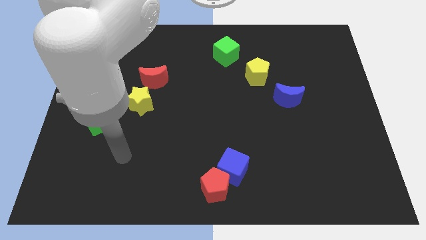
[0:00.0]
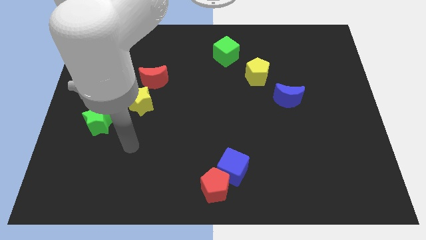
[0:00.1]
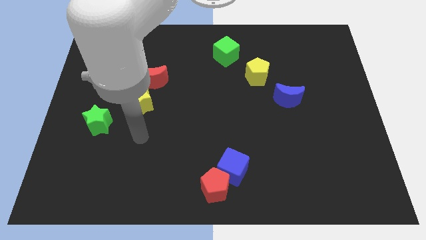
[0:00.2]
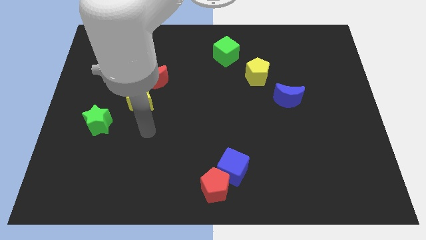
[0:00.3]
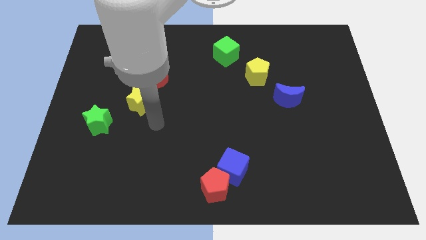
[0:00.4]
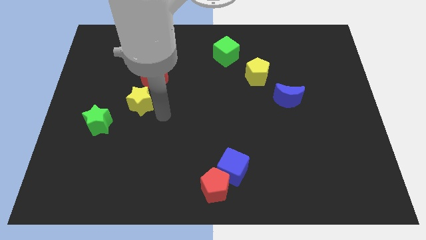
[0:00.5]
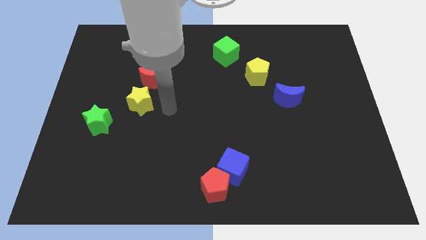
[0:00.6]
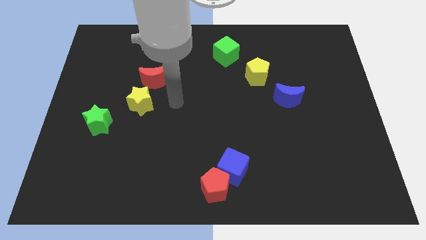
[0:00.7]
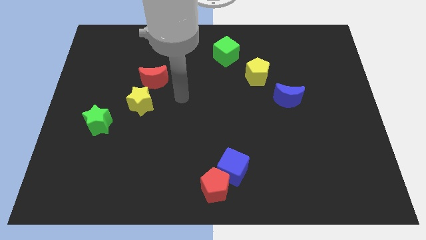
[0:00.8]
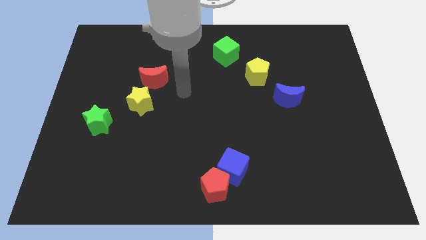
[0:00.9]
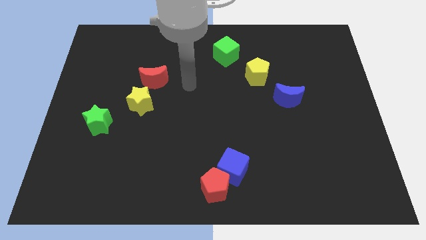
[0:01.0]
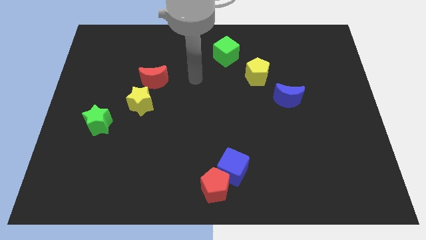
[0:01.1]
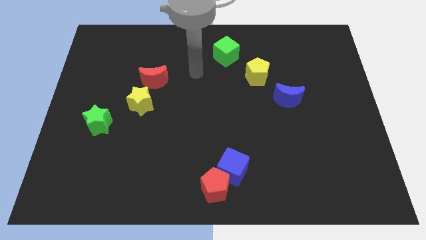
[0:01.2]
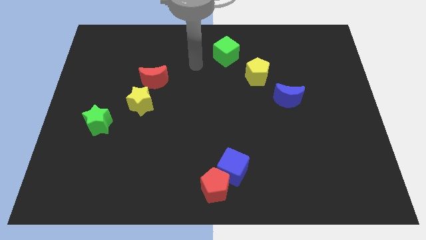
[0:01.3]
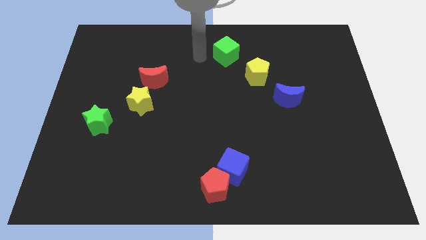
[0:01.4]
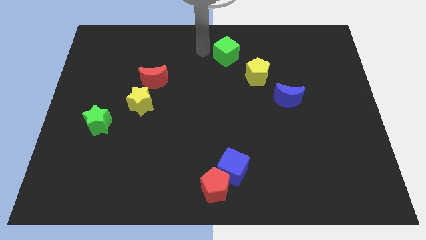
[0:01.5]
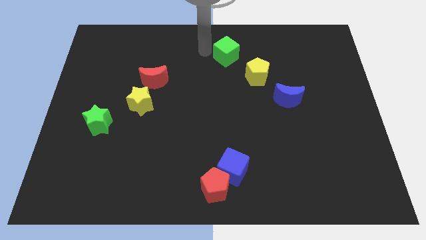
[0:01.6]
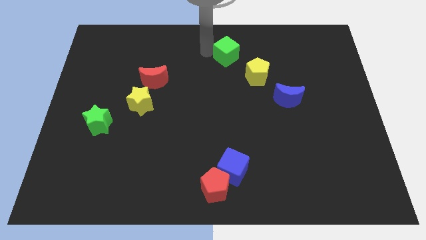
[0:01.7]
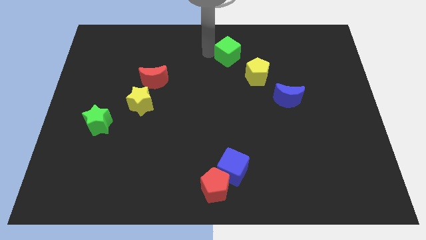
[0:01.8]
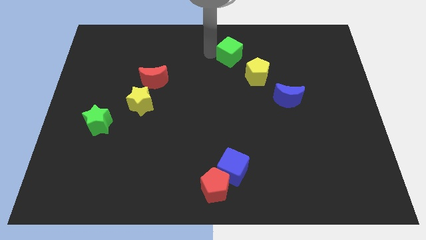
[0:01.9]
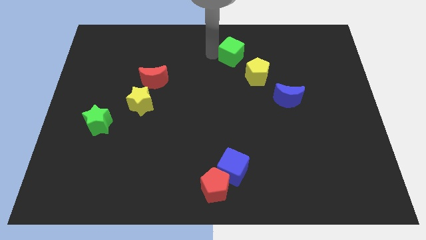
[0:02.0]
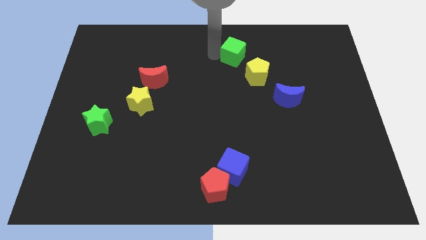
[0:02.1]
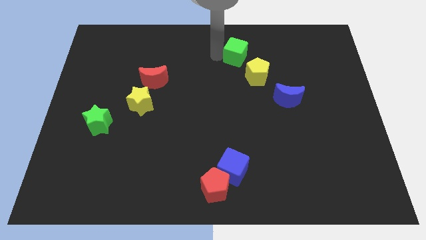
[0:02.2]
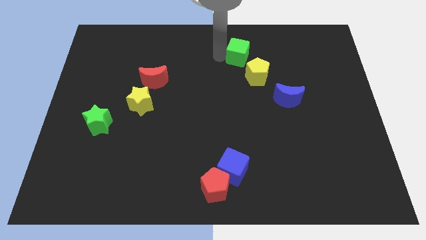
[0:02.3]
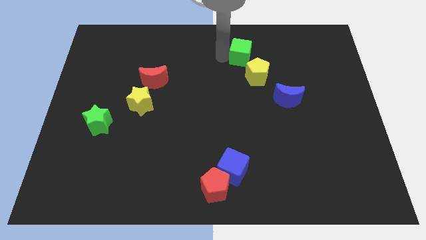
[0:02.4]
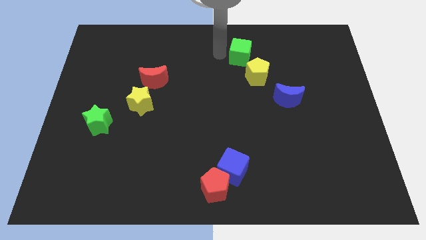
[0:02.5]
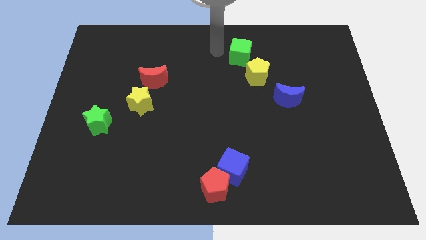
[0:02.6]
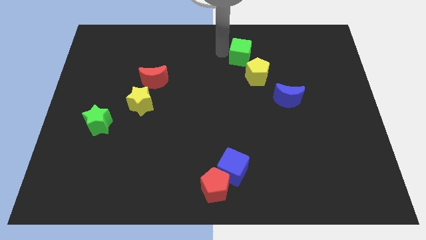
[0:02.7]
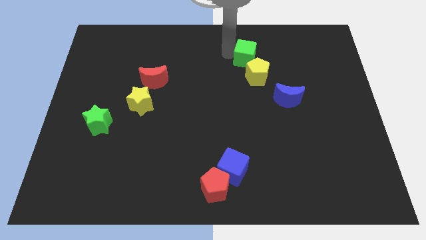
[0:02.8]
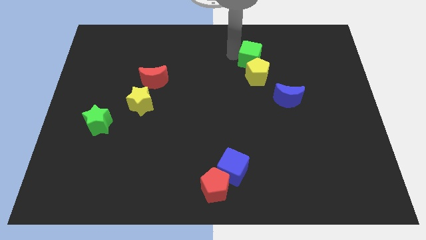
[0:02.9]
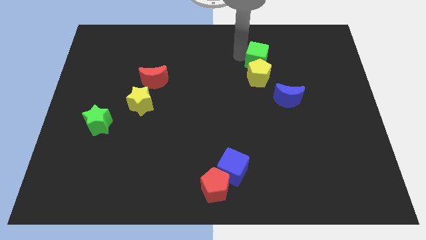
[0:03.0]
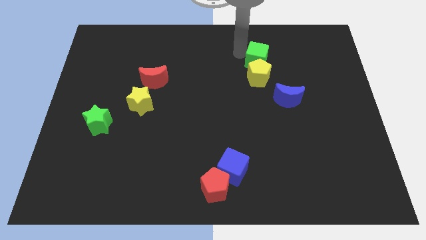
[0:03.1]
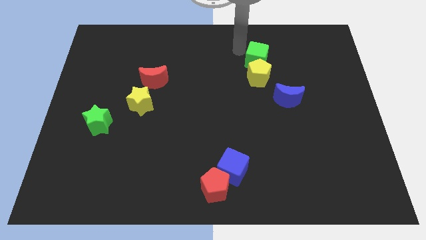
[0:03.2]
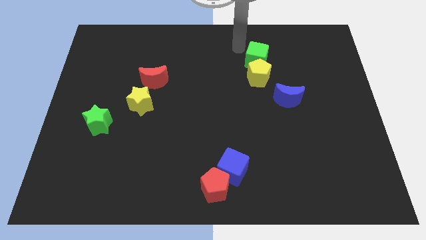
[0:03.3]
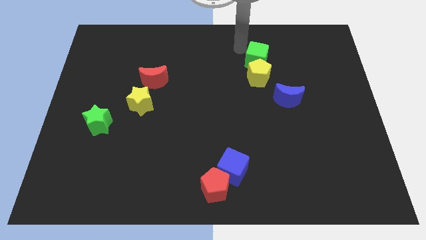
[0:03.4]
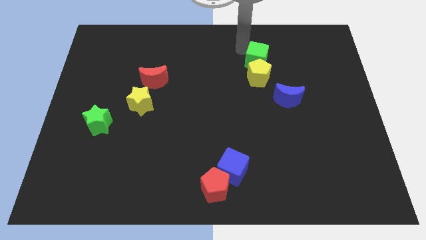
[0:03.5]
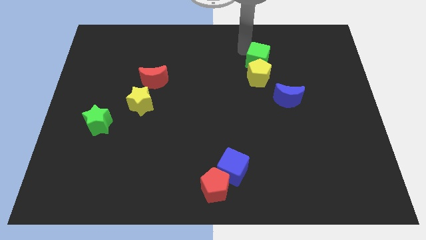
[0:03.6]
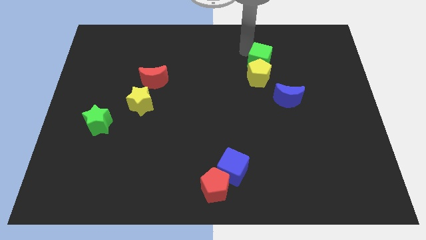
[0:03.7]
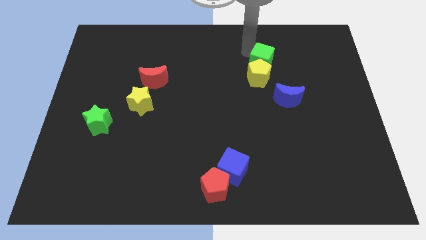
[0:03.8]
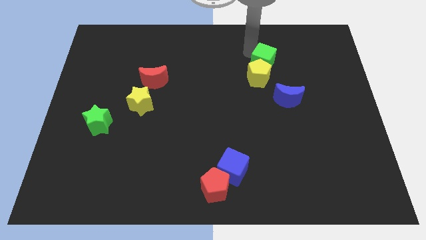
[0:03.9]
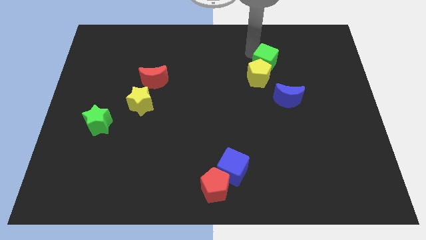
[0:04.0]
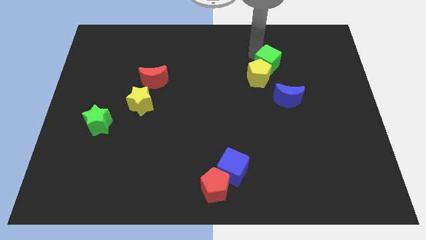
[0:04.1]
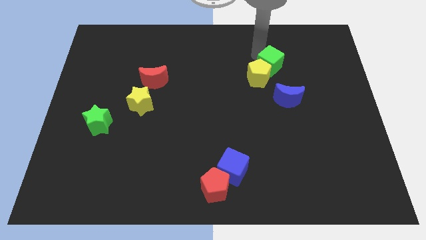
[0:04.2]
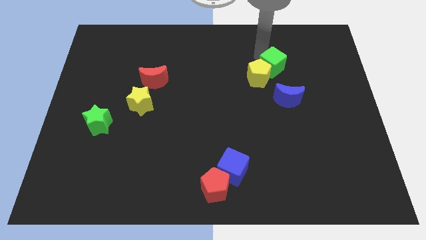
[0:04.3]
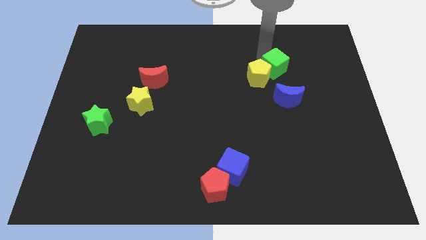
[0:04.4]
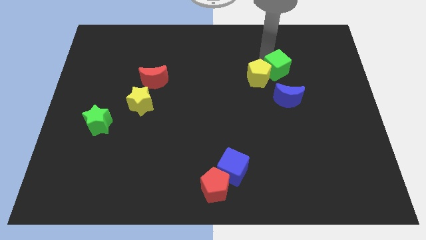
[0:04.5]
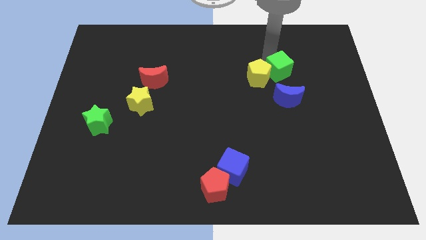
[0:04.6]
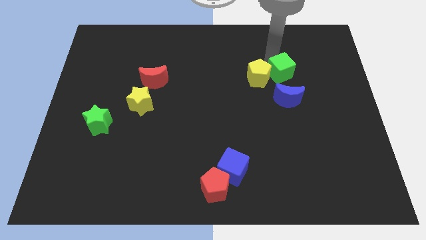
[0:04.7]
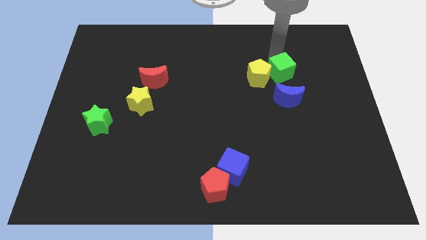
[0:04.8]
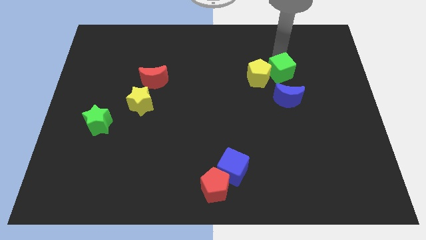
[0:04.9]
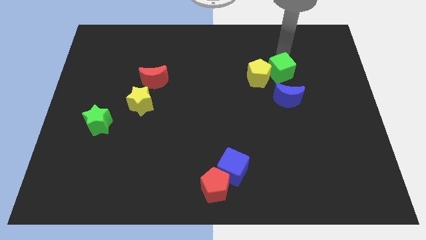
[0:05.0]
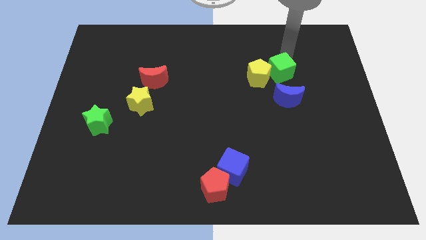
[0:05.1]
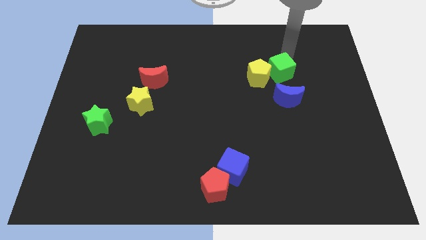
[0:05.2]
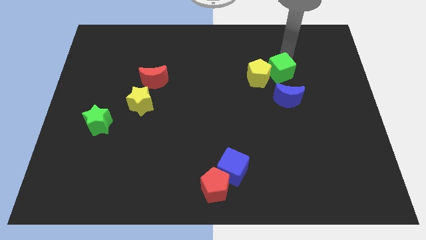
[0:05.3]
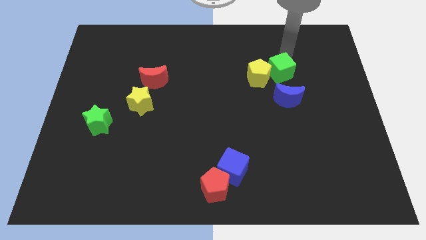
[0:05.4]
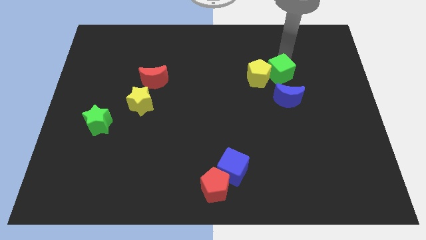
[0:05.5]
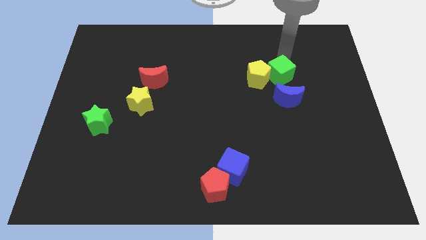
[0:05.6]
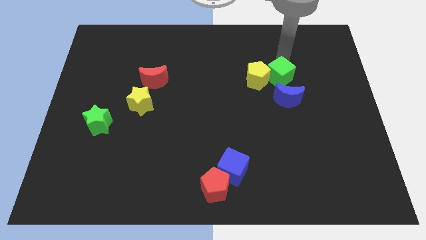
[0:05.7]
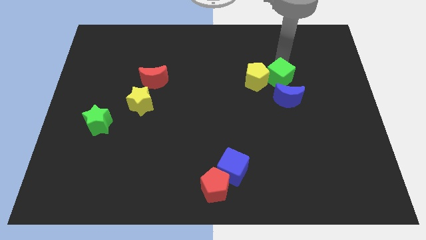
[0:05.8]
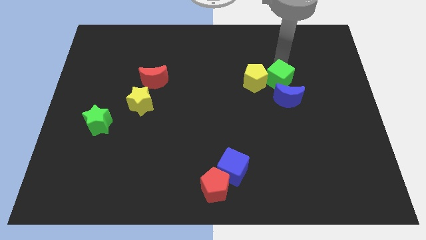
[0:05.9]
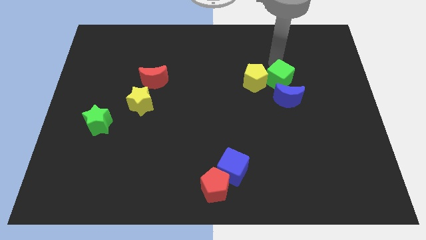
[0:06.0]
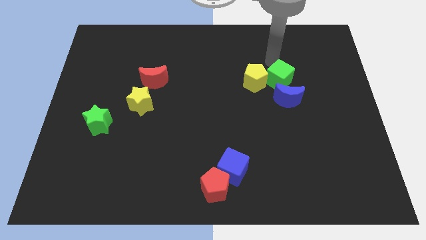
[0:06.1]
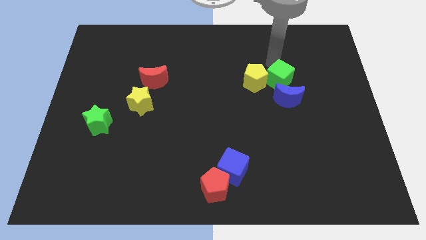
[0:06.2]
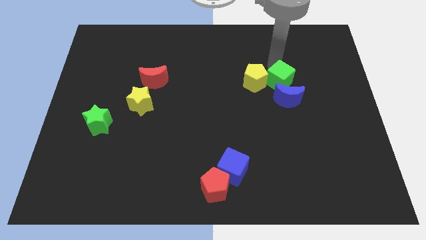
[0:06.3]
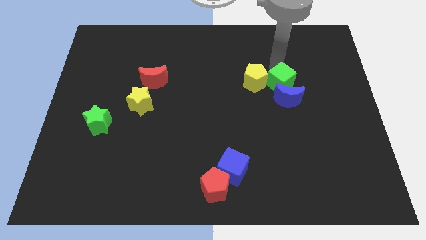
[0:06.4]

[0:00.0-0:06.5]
push the green cube towards the blue moon

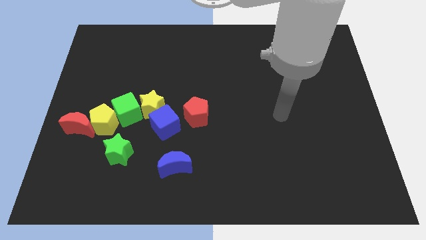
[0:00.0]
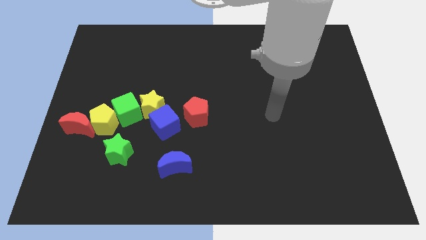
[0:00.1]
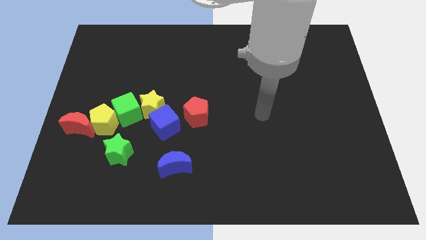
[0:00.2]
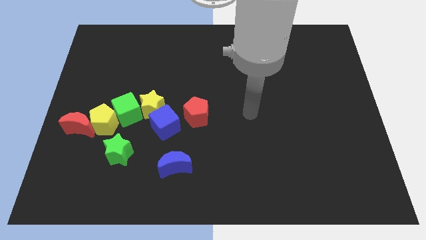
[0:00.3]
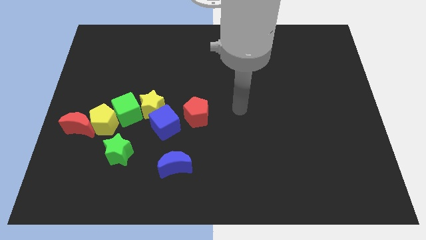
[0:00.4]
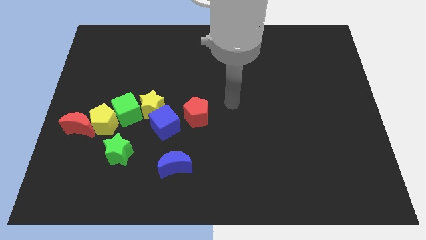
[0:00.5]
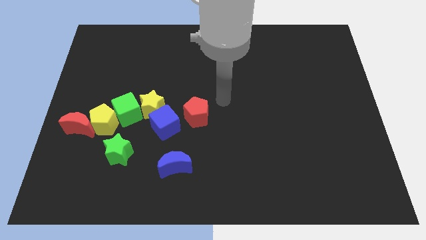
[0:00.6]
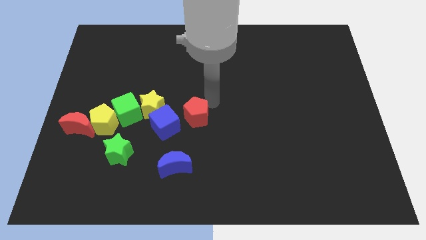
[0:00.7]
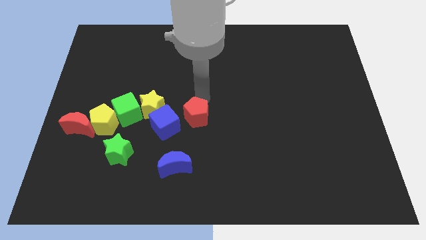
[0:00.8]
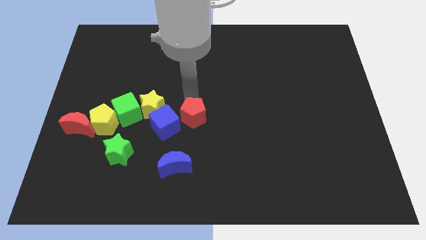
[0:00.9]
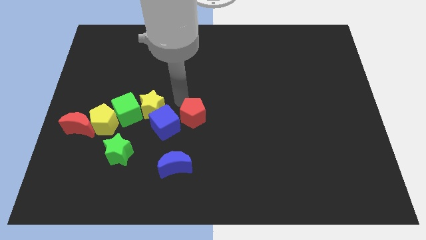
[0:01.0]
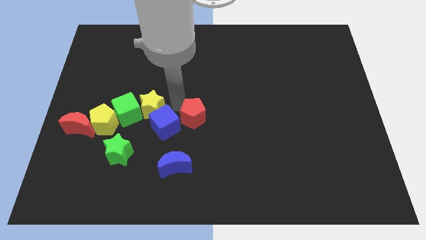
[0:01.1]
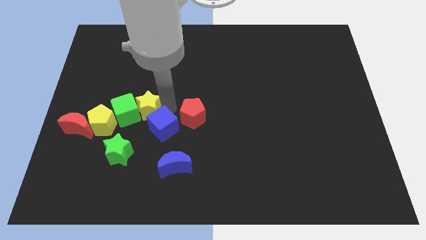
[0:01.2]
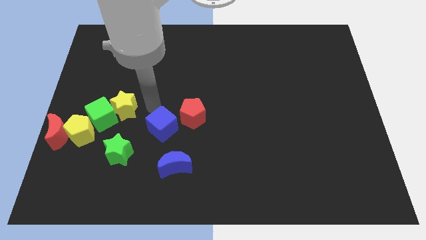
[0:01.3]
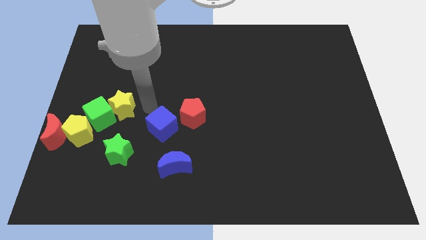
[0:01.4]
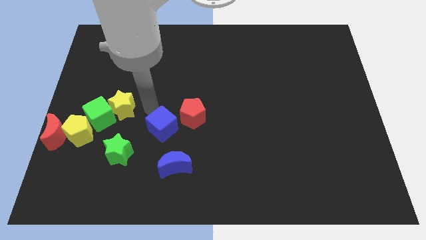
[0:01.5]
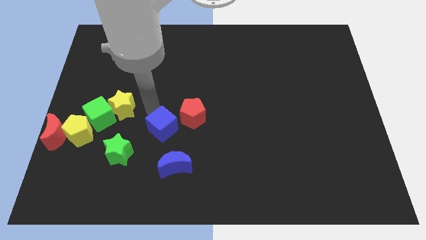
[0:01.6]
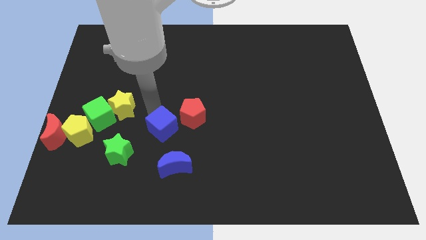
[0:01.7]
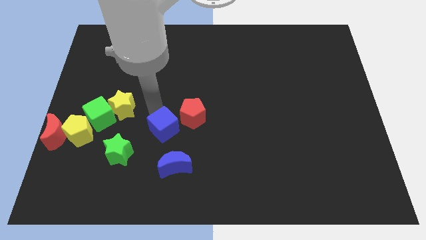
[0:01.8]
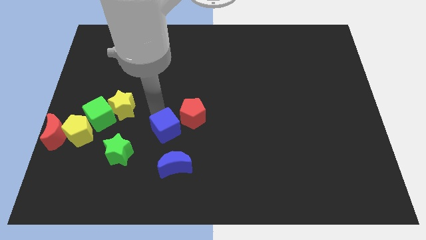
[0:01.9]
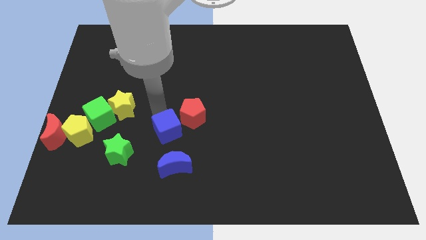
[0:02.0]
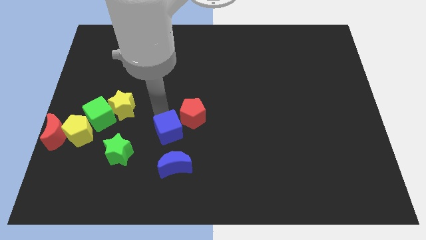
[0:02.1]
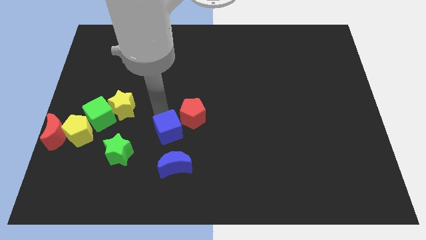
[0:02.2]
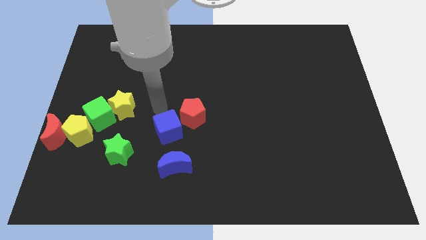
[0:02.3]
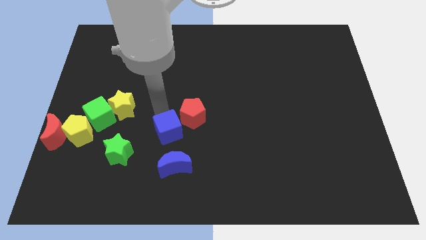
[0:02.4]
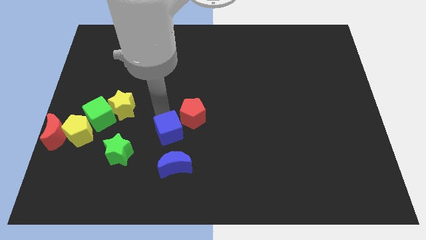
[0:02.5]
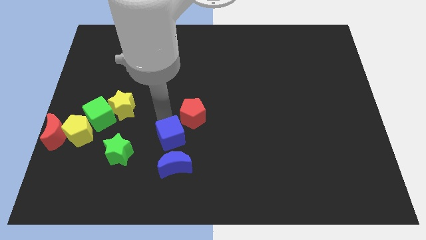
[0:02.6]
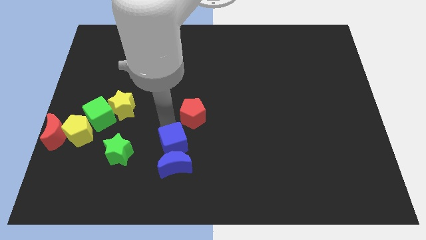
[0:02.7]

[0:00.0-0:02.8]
move the blue cube next to the blue moon
